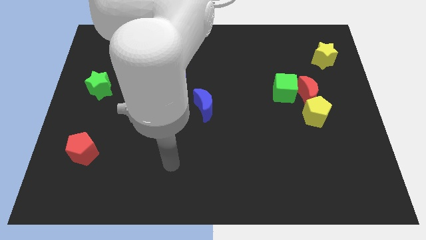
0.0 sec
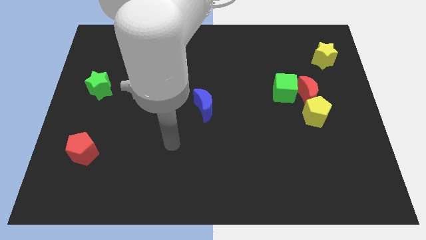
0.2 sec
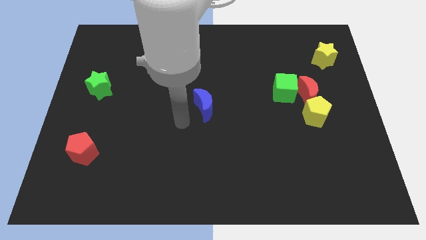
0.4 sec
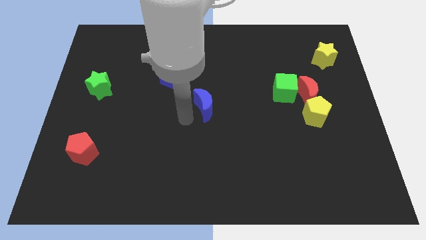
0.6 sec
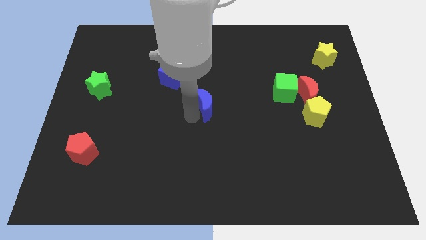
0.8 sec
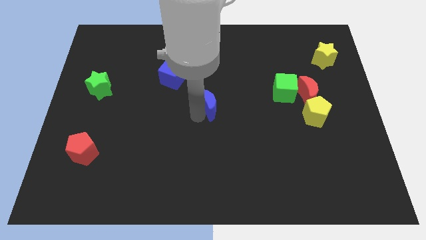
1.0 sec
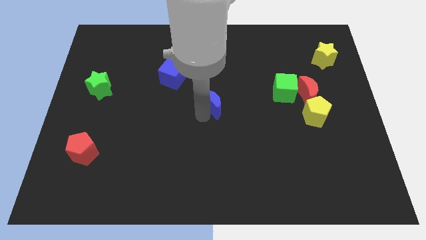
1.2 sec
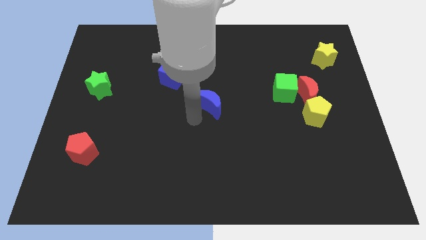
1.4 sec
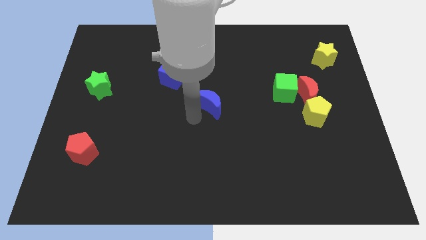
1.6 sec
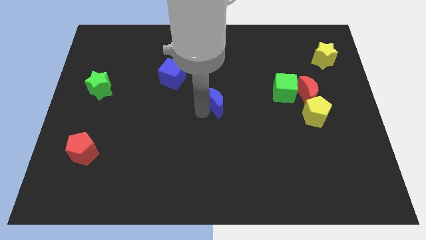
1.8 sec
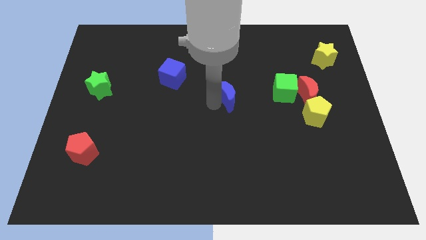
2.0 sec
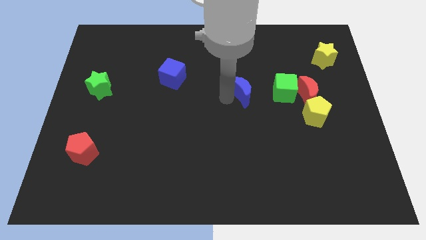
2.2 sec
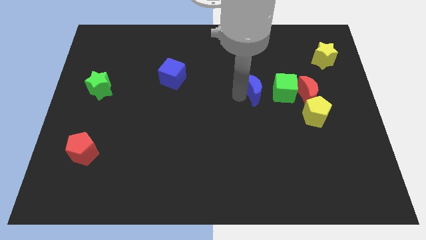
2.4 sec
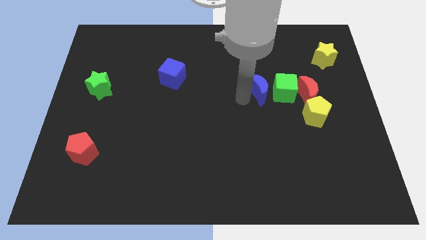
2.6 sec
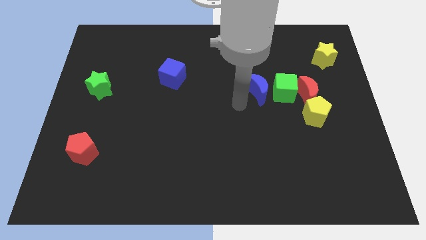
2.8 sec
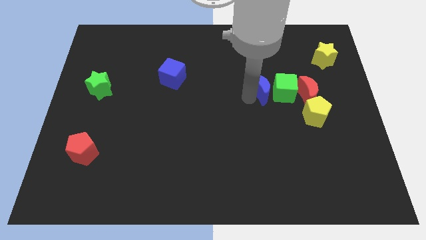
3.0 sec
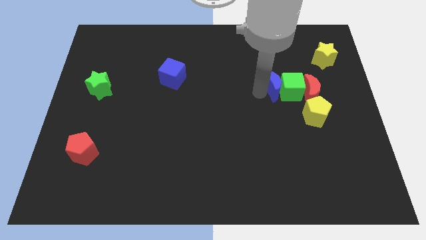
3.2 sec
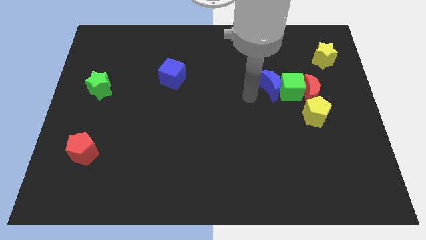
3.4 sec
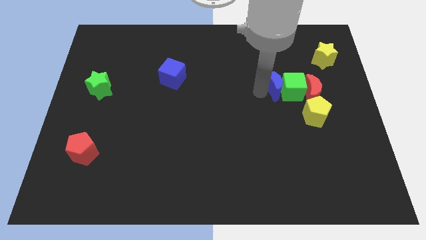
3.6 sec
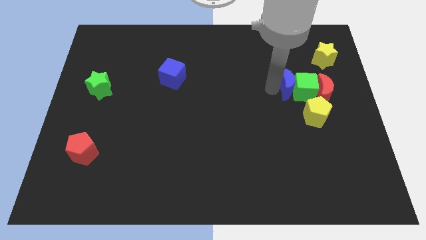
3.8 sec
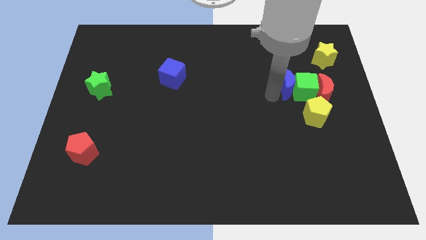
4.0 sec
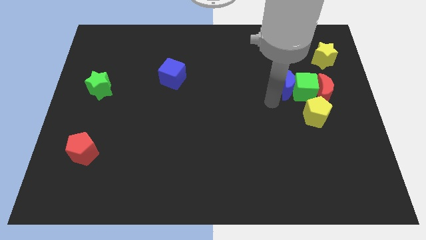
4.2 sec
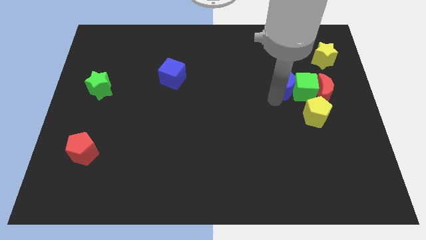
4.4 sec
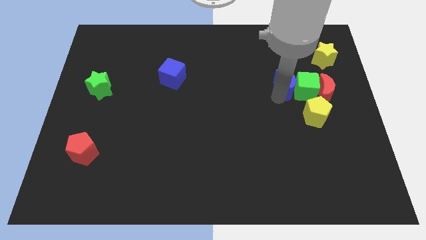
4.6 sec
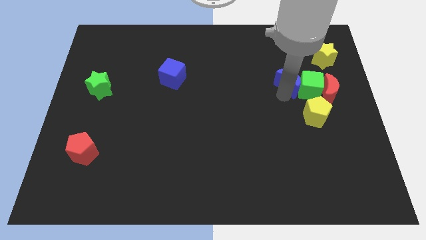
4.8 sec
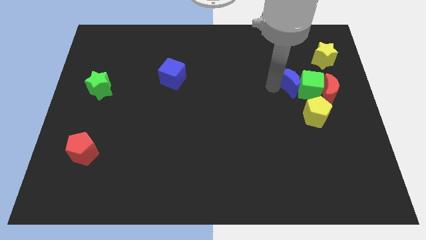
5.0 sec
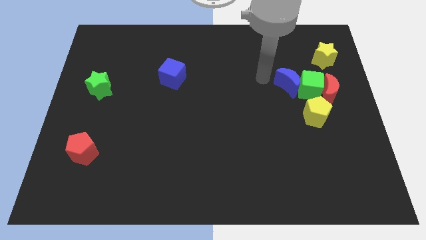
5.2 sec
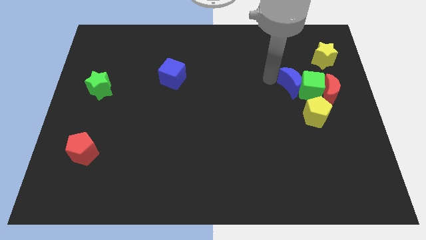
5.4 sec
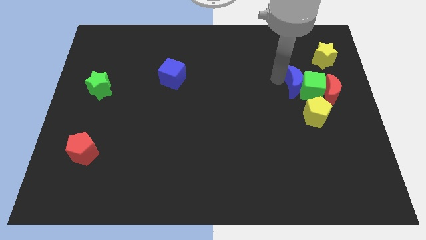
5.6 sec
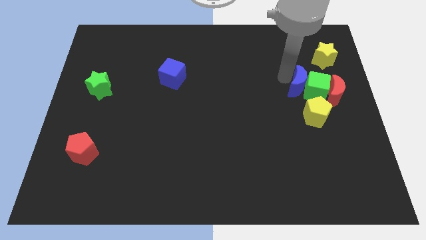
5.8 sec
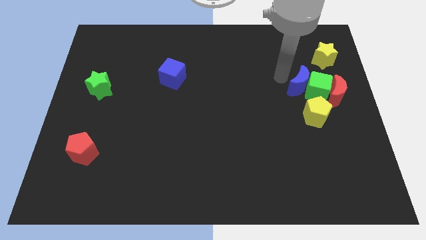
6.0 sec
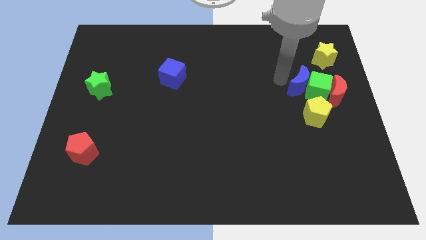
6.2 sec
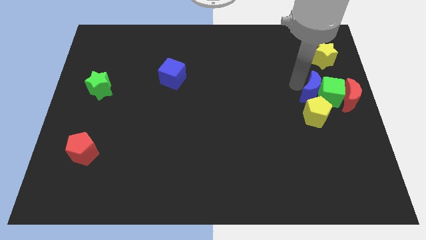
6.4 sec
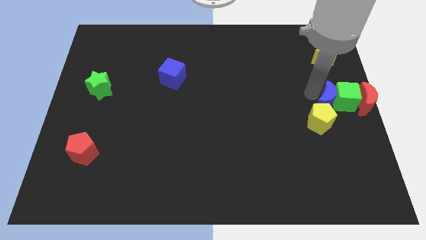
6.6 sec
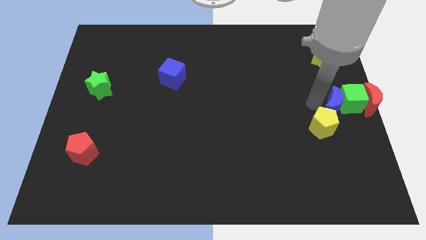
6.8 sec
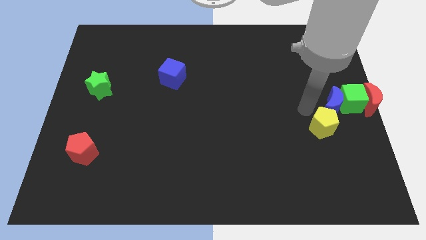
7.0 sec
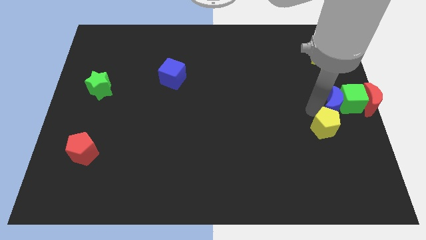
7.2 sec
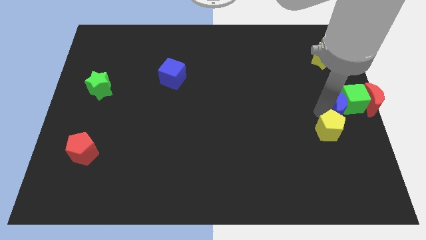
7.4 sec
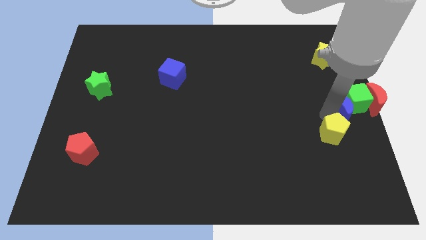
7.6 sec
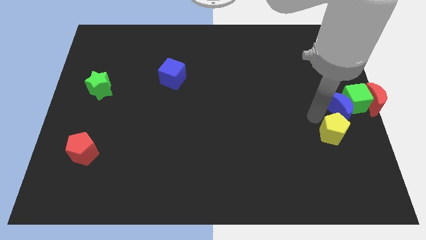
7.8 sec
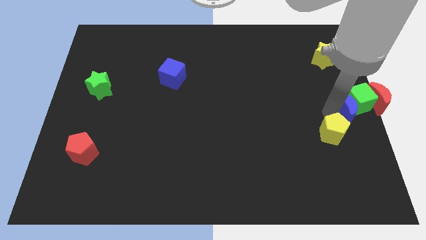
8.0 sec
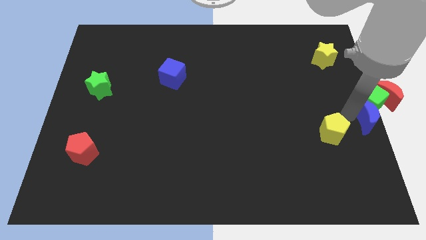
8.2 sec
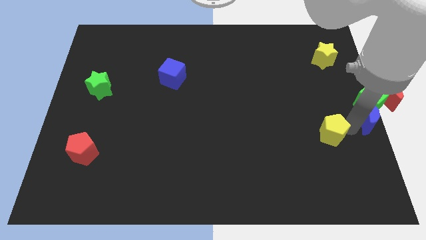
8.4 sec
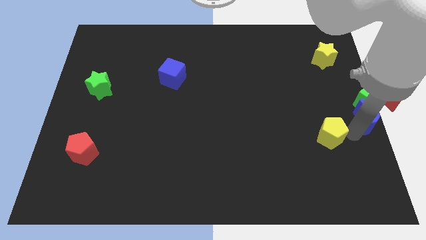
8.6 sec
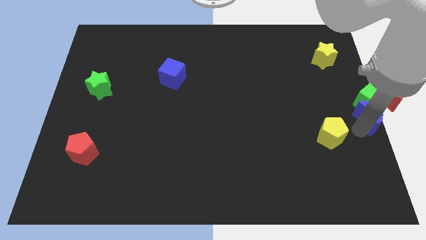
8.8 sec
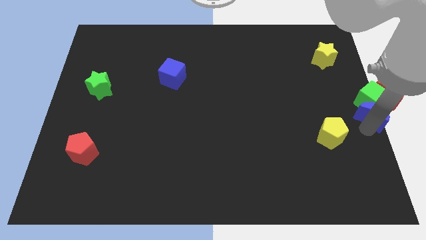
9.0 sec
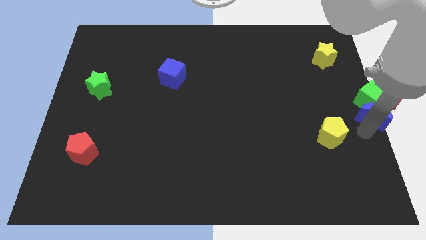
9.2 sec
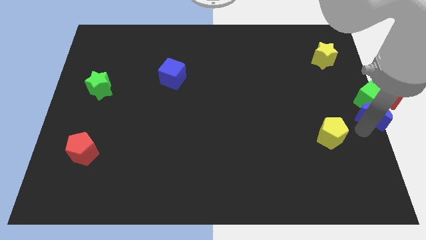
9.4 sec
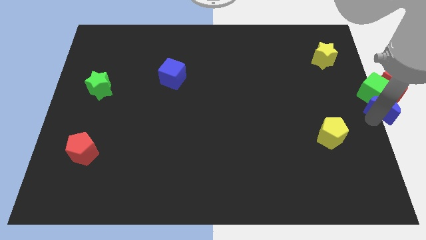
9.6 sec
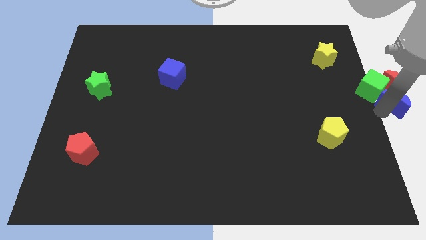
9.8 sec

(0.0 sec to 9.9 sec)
slide the blue moon towards the red moon

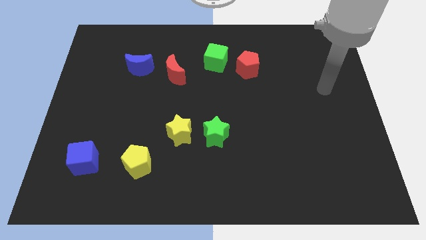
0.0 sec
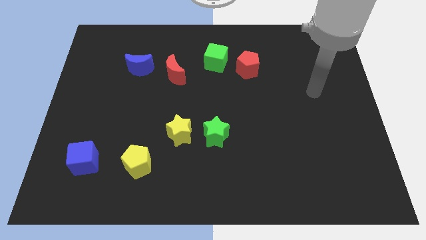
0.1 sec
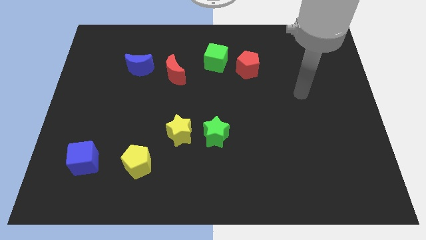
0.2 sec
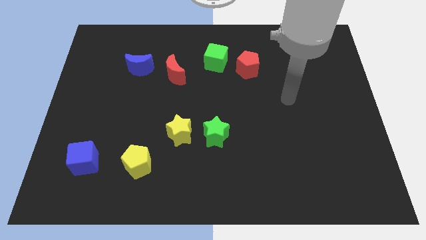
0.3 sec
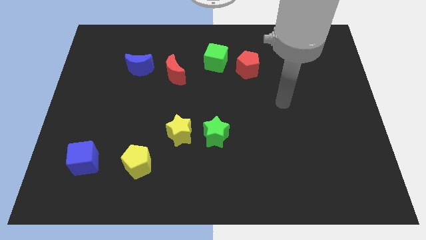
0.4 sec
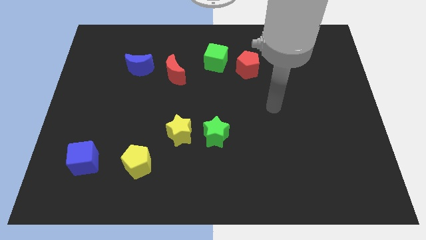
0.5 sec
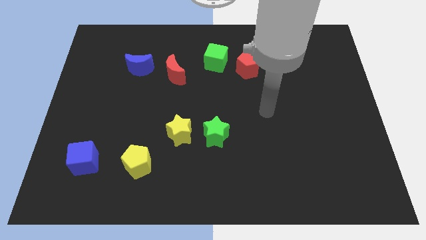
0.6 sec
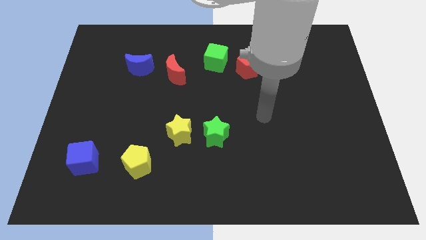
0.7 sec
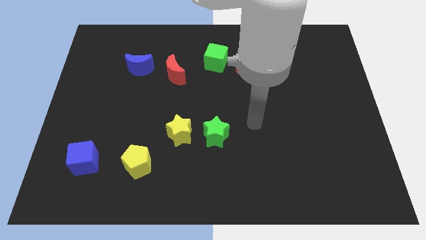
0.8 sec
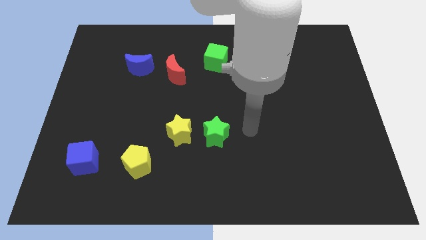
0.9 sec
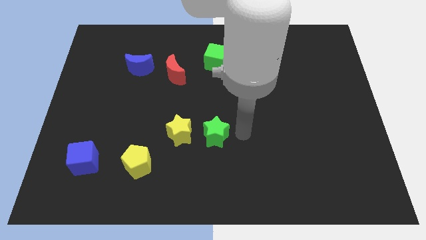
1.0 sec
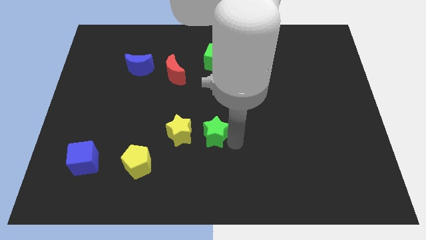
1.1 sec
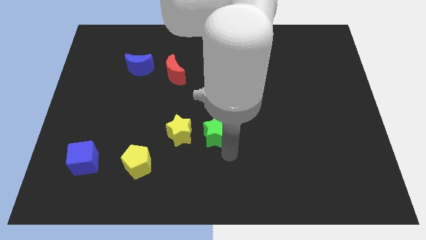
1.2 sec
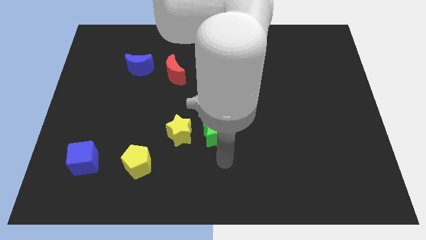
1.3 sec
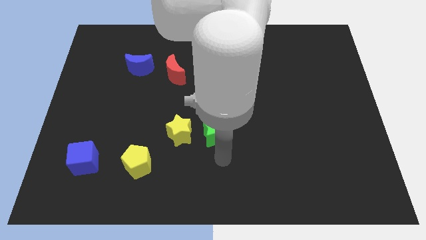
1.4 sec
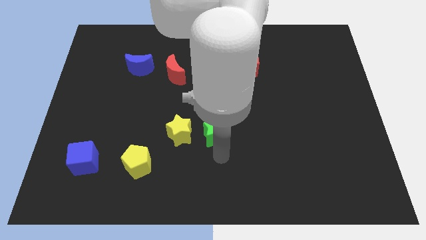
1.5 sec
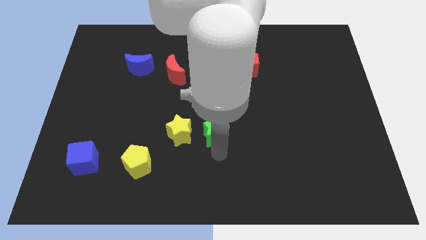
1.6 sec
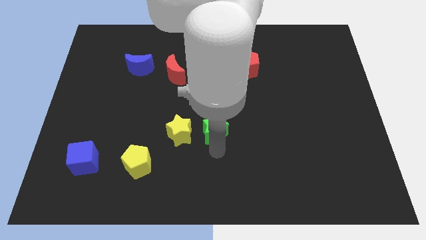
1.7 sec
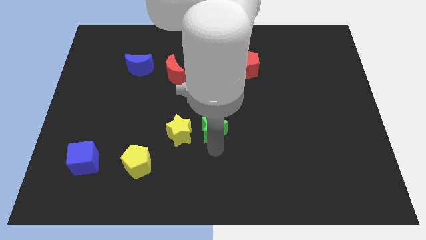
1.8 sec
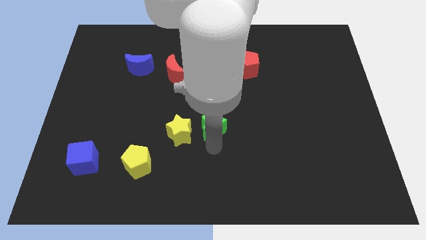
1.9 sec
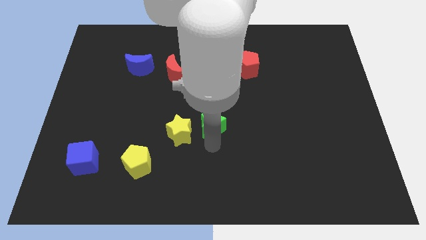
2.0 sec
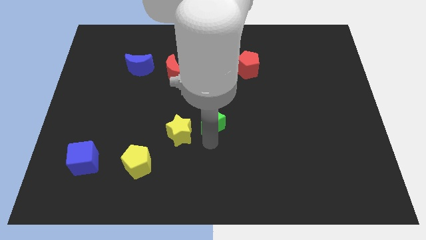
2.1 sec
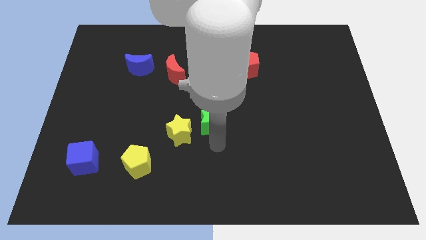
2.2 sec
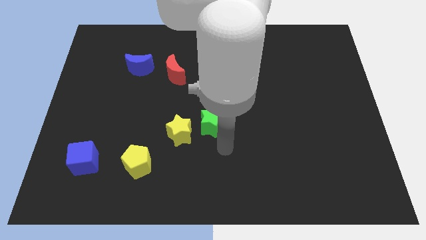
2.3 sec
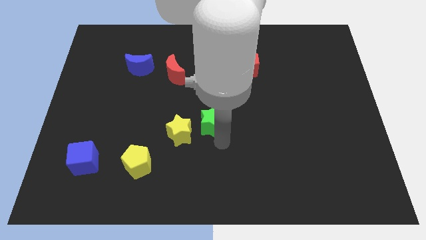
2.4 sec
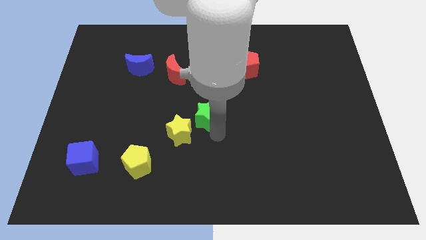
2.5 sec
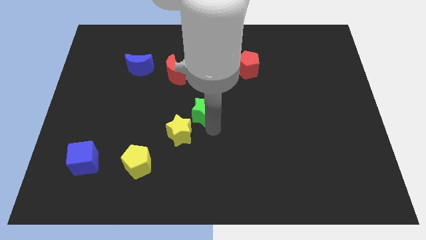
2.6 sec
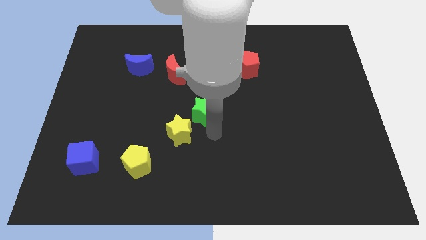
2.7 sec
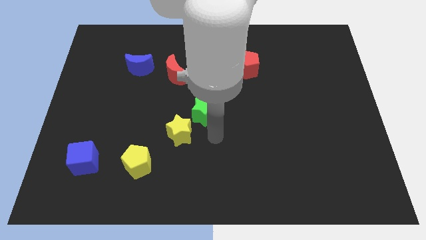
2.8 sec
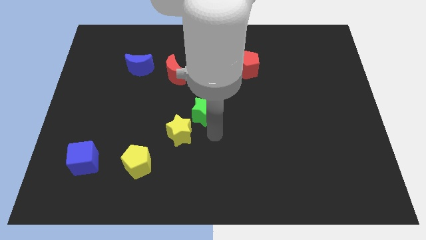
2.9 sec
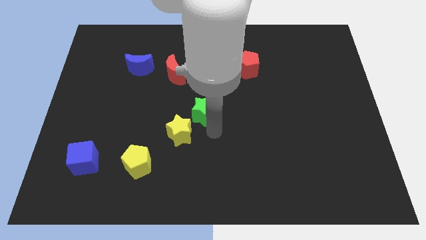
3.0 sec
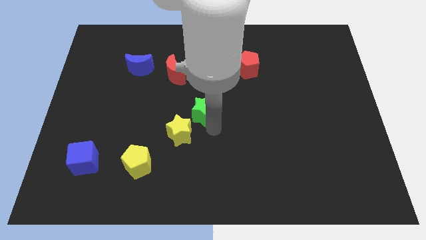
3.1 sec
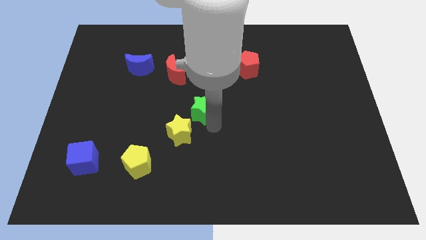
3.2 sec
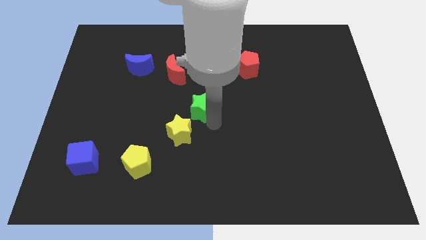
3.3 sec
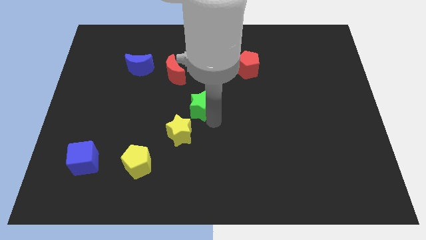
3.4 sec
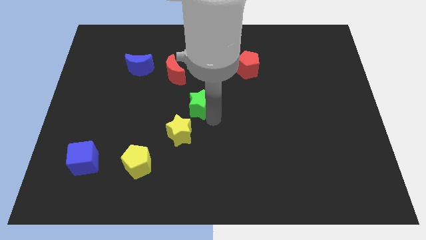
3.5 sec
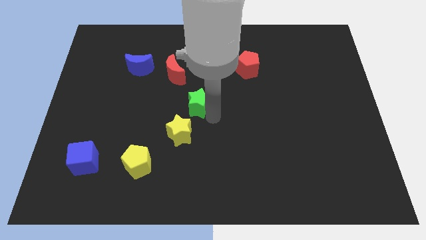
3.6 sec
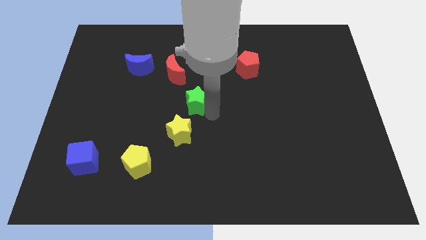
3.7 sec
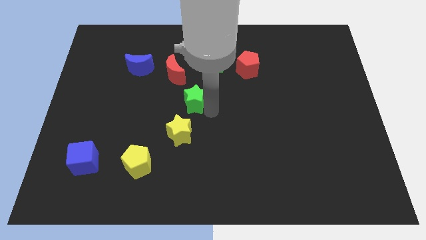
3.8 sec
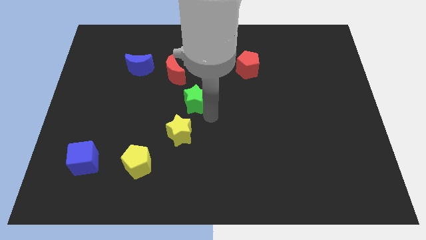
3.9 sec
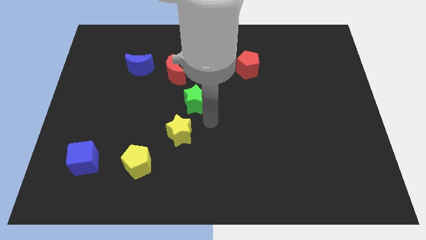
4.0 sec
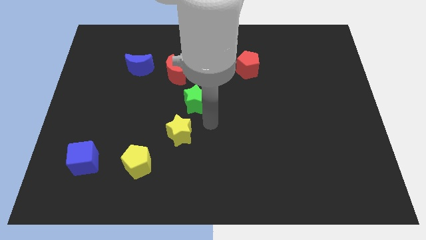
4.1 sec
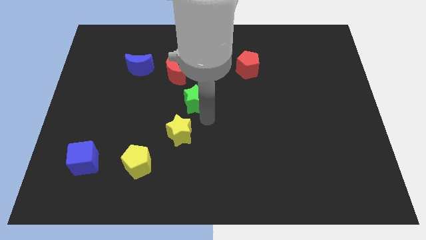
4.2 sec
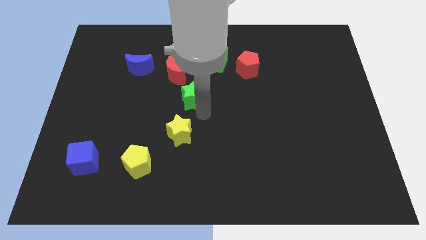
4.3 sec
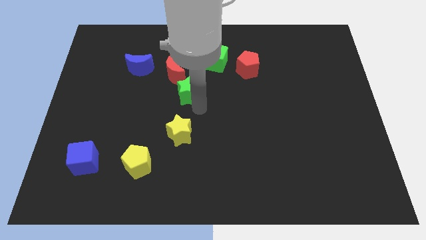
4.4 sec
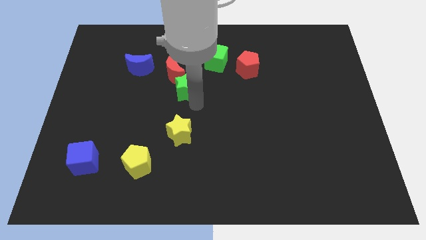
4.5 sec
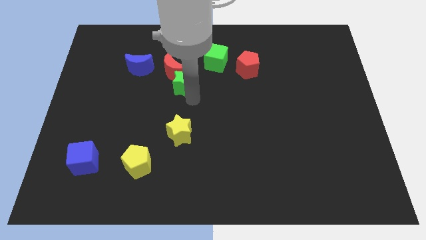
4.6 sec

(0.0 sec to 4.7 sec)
slide the green star close to the red moon
